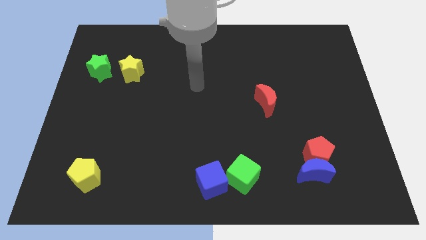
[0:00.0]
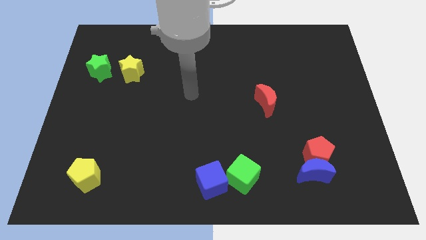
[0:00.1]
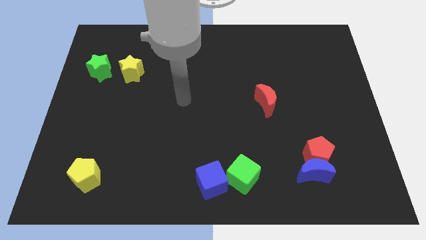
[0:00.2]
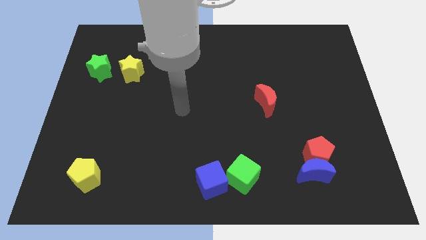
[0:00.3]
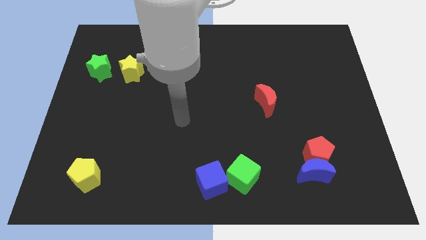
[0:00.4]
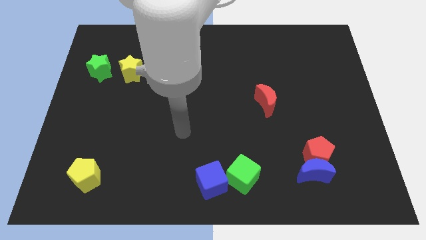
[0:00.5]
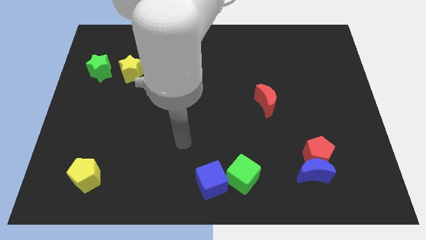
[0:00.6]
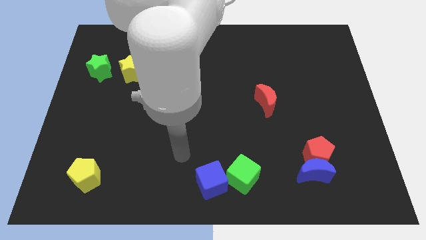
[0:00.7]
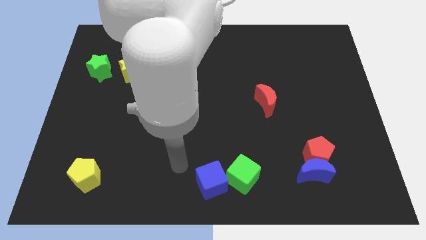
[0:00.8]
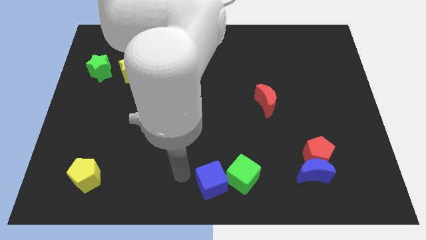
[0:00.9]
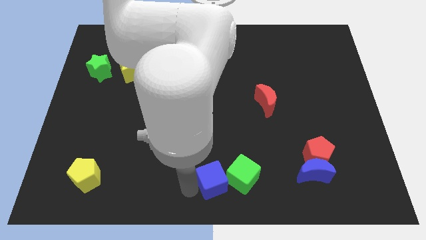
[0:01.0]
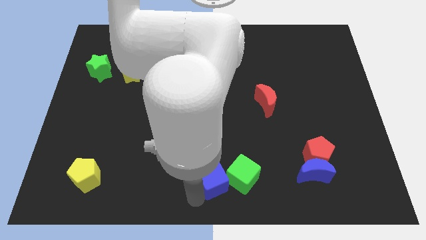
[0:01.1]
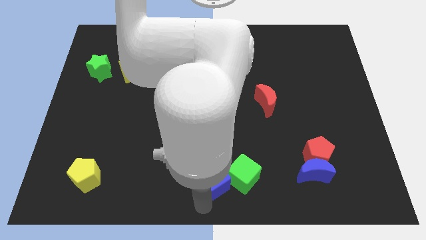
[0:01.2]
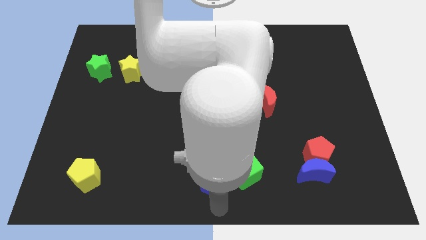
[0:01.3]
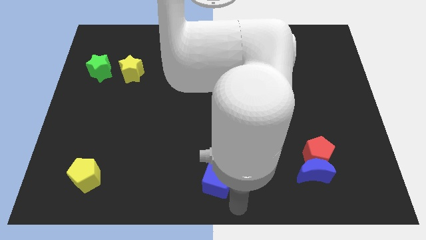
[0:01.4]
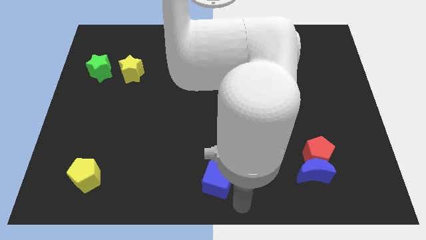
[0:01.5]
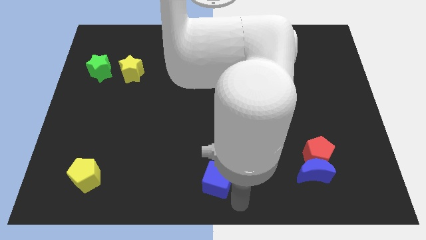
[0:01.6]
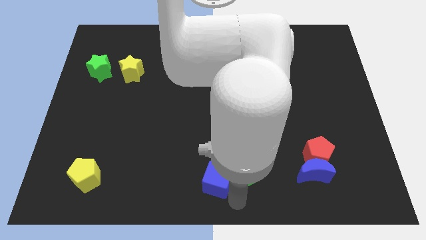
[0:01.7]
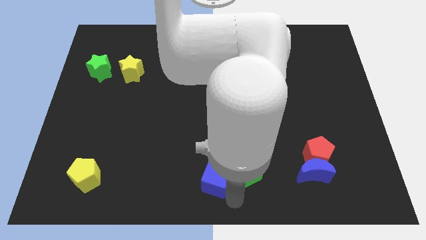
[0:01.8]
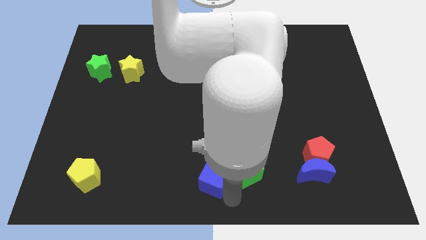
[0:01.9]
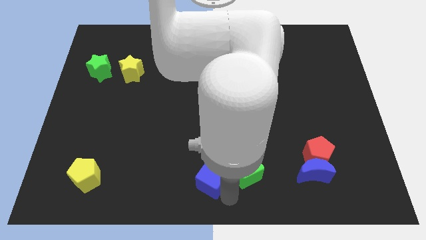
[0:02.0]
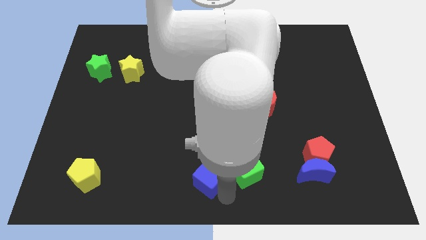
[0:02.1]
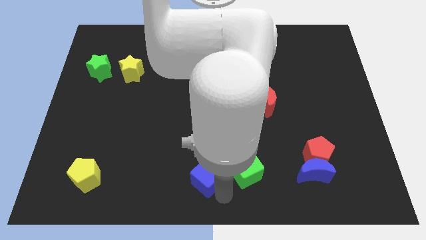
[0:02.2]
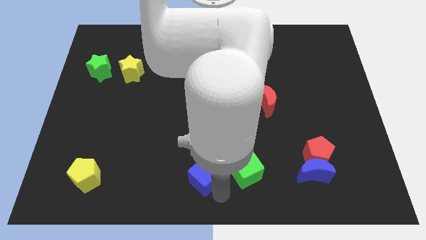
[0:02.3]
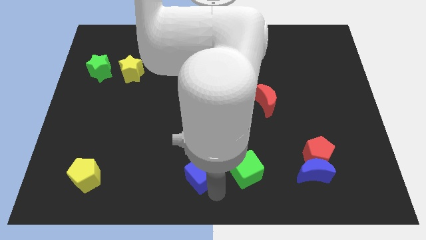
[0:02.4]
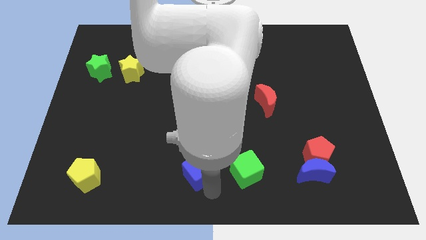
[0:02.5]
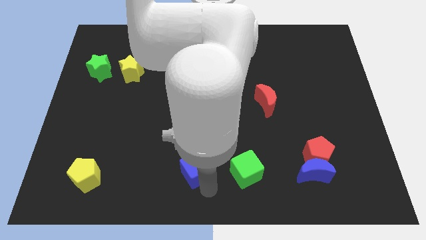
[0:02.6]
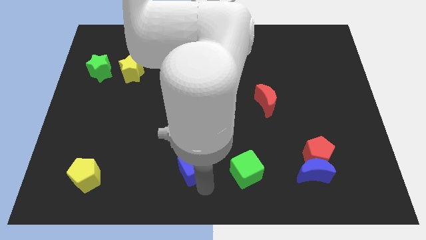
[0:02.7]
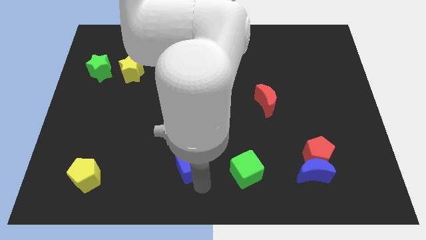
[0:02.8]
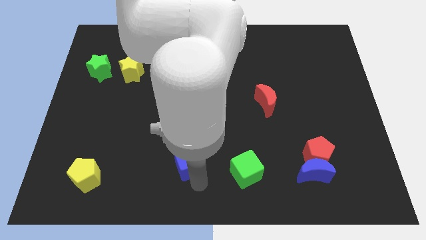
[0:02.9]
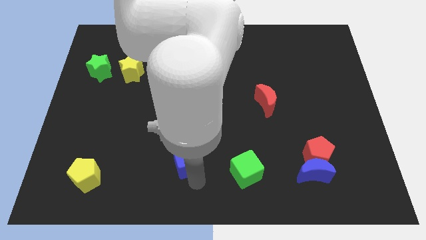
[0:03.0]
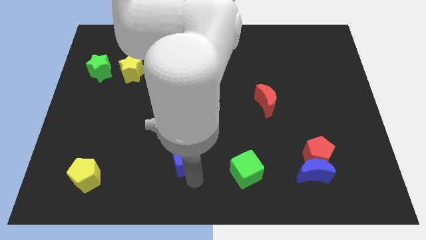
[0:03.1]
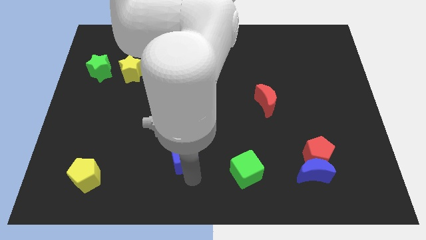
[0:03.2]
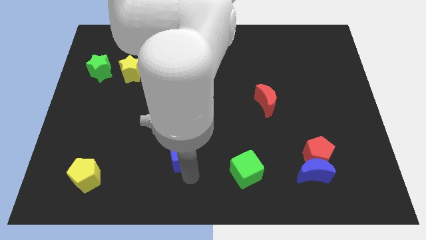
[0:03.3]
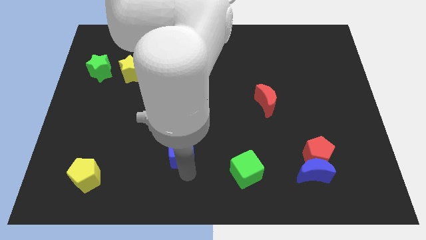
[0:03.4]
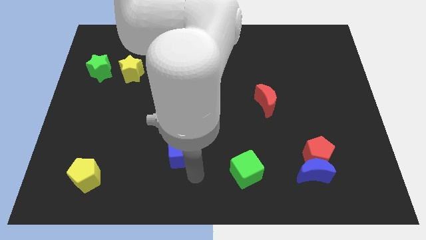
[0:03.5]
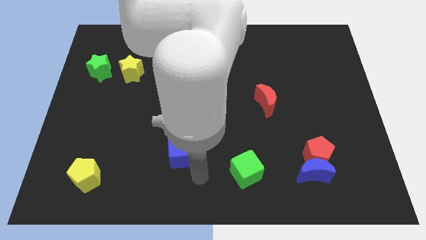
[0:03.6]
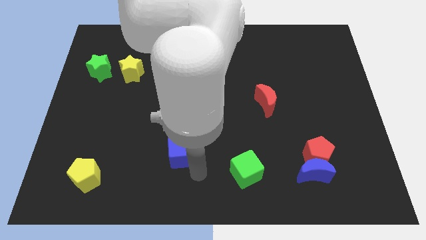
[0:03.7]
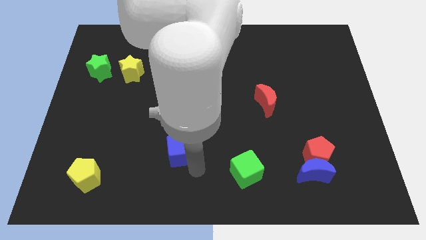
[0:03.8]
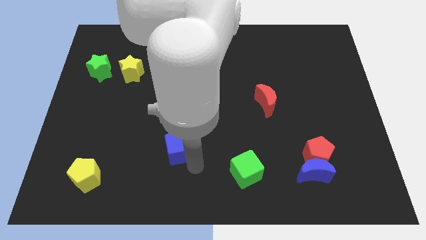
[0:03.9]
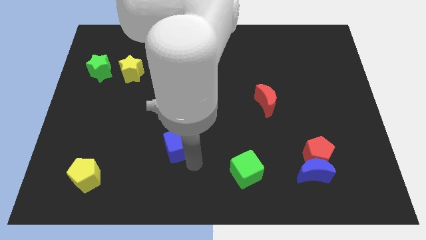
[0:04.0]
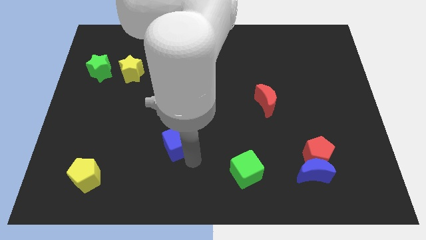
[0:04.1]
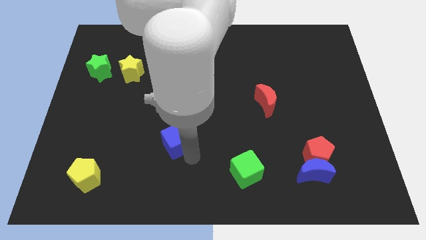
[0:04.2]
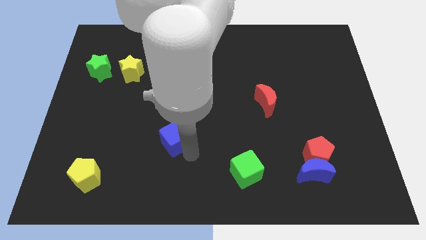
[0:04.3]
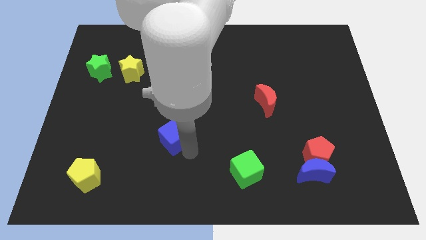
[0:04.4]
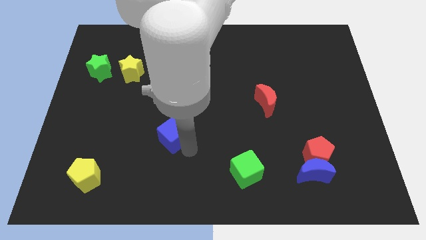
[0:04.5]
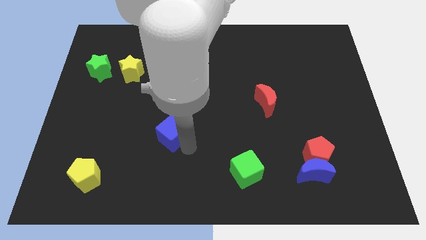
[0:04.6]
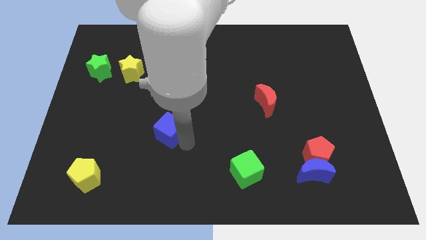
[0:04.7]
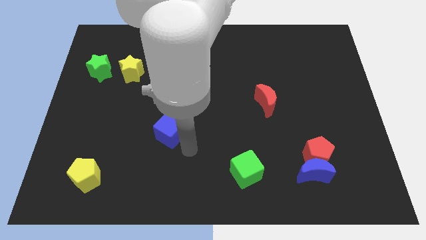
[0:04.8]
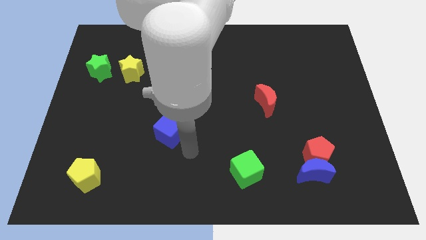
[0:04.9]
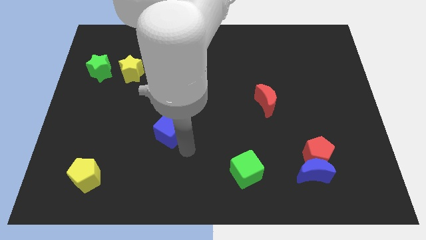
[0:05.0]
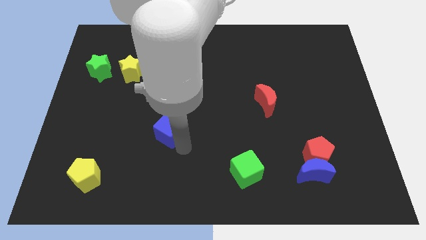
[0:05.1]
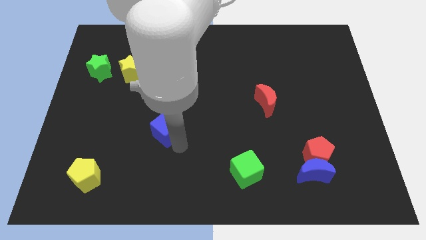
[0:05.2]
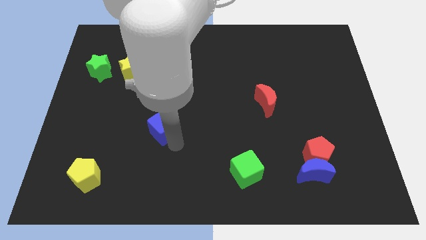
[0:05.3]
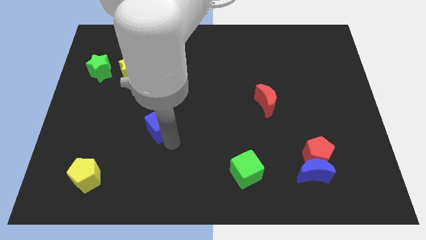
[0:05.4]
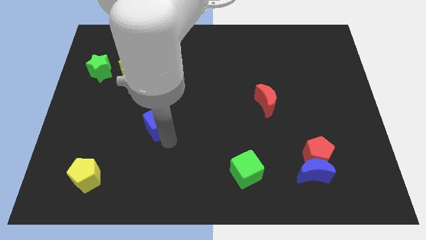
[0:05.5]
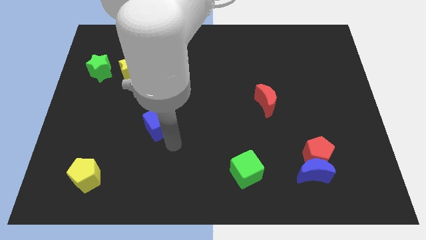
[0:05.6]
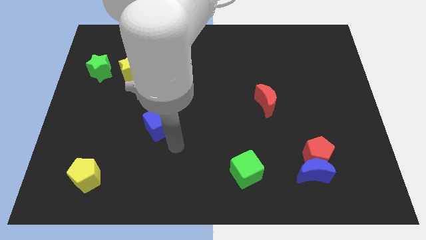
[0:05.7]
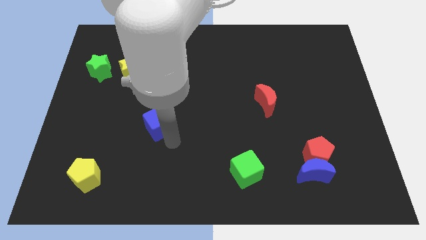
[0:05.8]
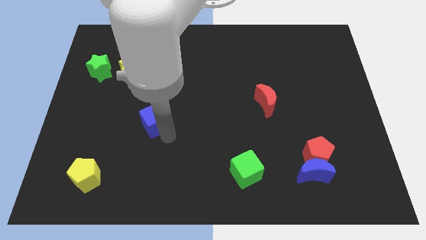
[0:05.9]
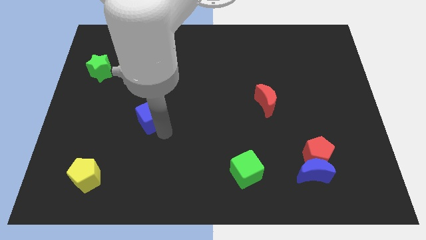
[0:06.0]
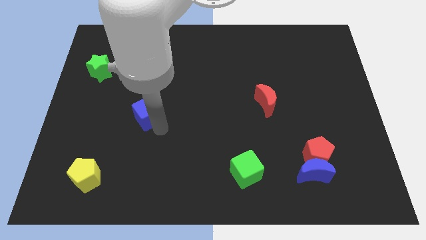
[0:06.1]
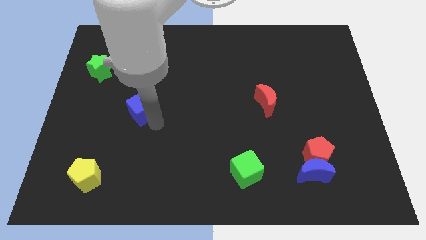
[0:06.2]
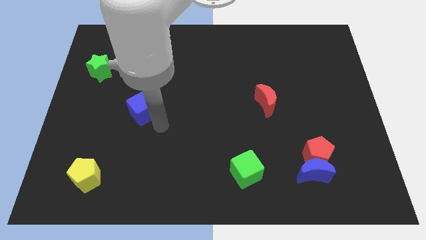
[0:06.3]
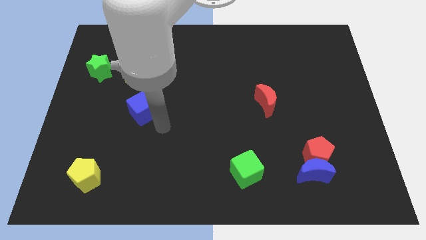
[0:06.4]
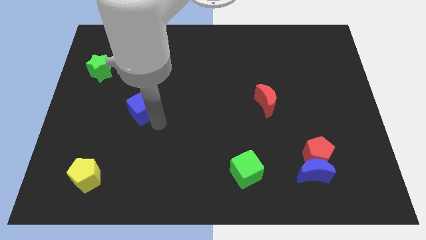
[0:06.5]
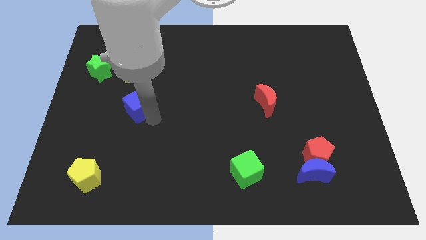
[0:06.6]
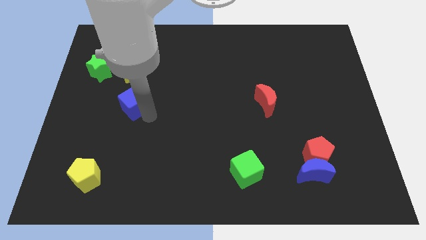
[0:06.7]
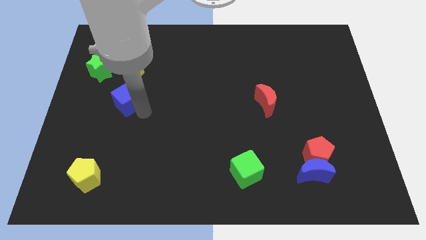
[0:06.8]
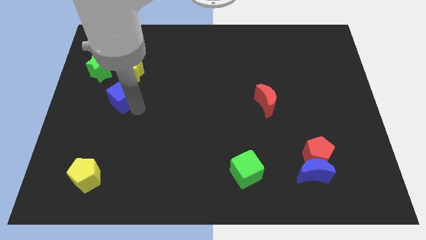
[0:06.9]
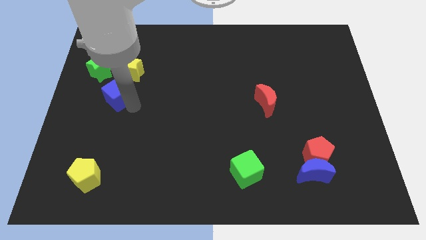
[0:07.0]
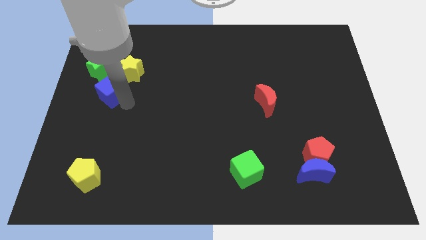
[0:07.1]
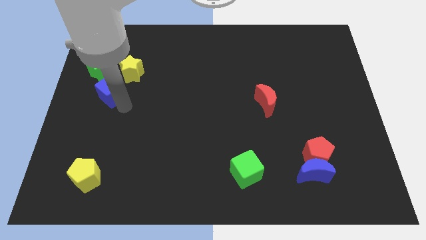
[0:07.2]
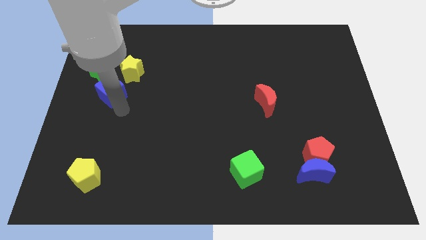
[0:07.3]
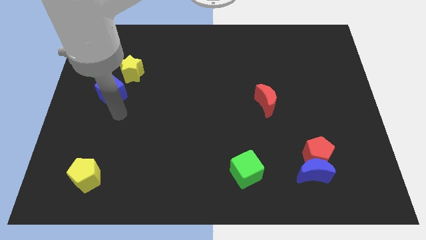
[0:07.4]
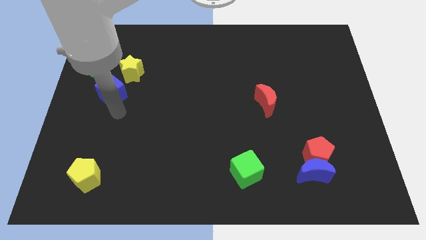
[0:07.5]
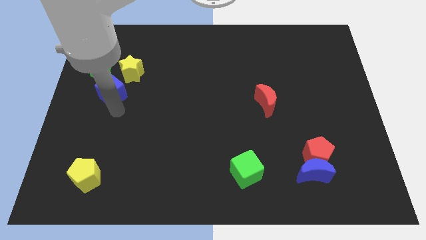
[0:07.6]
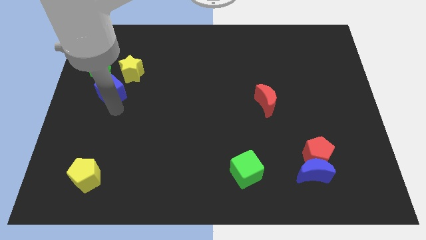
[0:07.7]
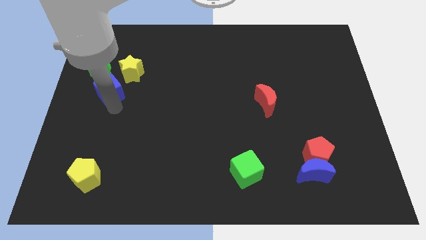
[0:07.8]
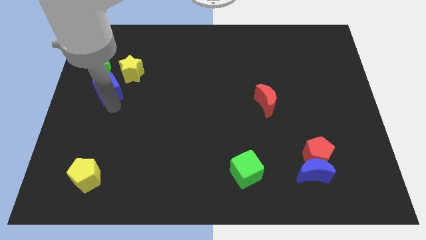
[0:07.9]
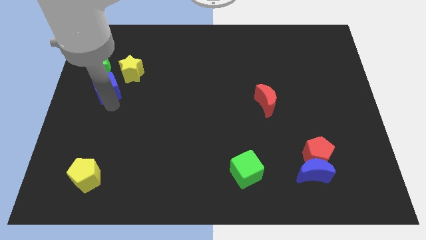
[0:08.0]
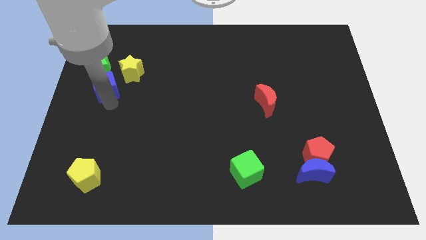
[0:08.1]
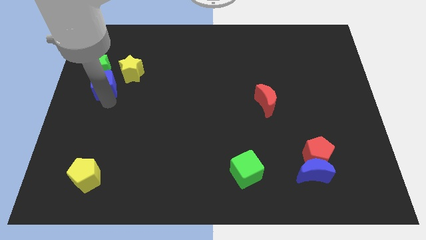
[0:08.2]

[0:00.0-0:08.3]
slide the blue cube next to the green star
